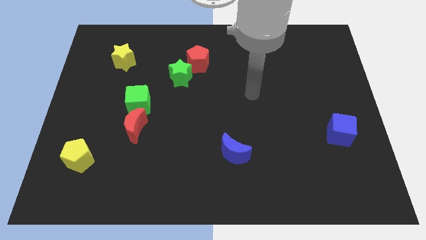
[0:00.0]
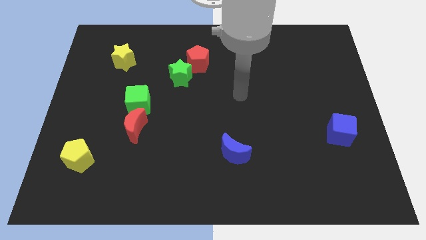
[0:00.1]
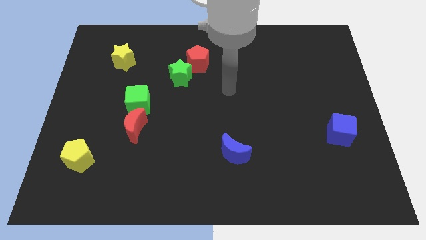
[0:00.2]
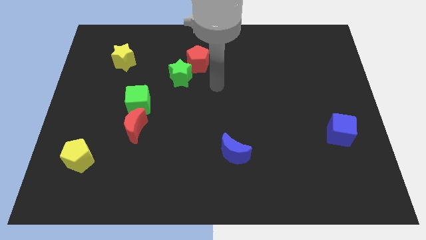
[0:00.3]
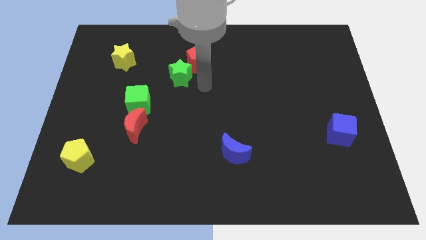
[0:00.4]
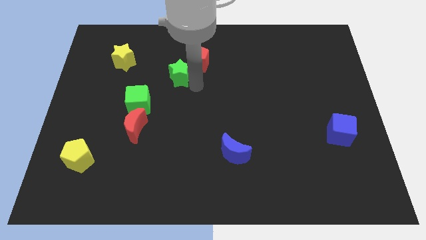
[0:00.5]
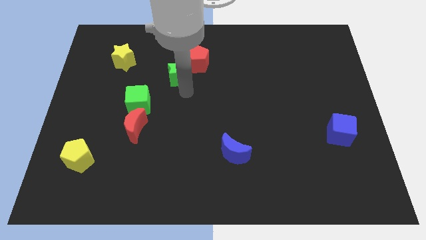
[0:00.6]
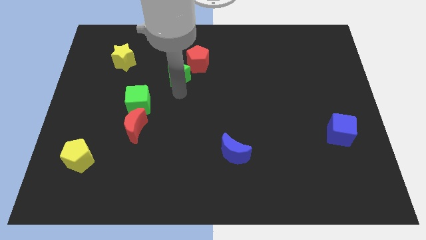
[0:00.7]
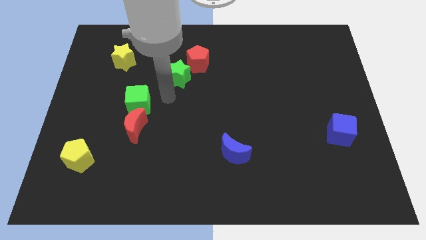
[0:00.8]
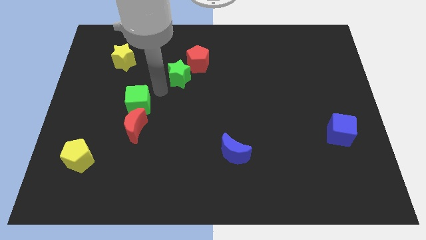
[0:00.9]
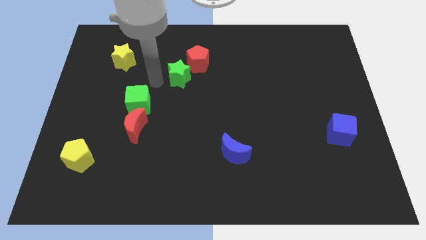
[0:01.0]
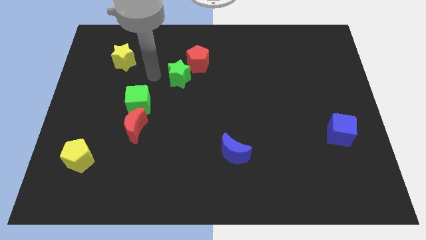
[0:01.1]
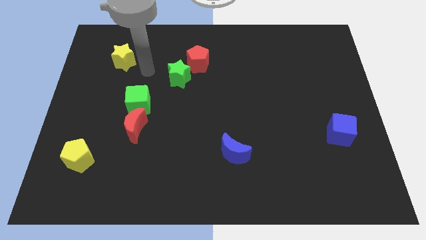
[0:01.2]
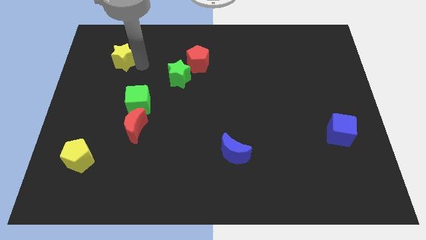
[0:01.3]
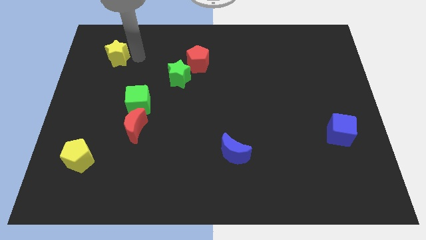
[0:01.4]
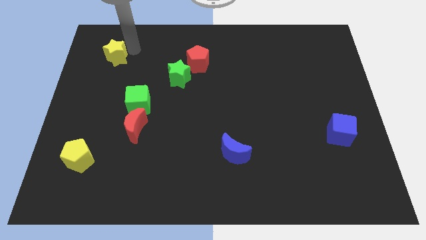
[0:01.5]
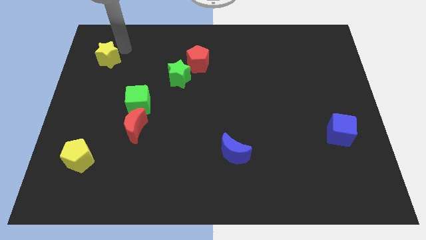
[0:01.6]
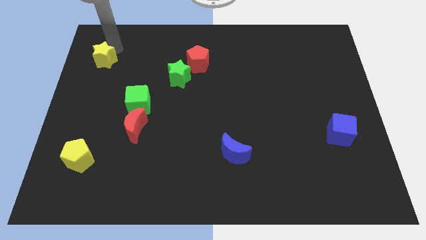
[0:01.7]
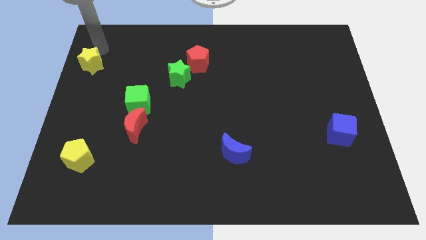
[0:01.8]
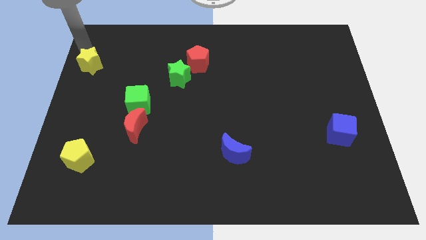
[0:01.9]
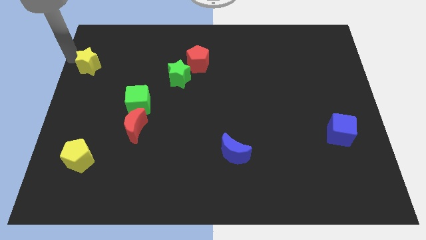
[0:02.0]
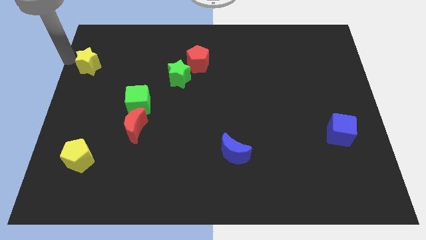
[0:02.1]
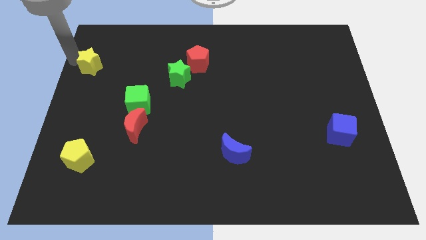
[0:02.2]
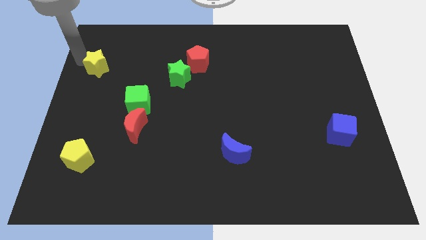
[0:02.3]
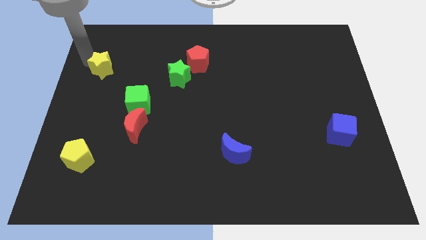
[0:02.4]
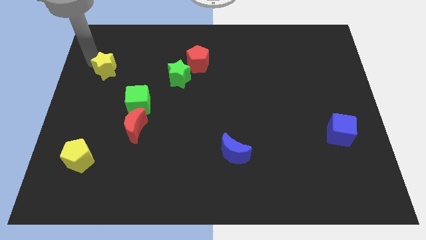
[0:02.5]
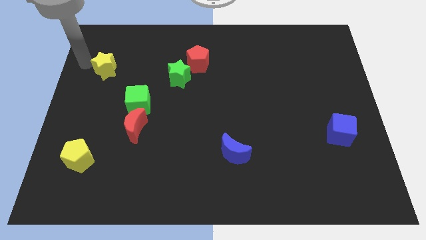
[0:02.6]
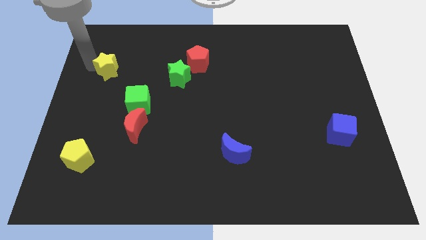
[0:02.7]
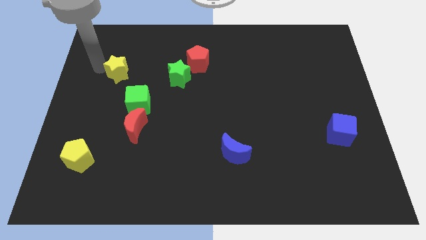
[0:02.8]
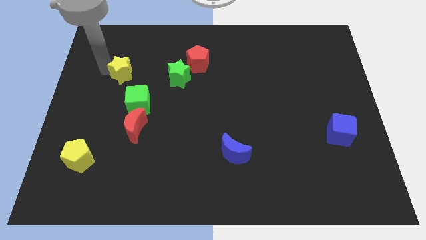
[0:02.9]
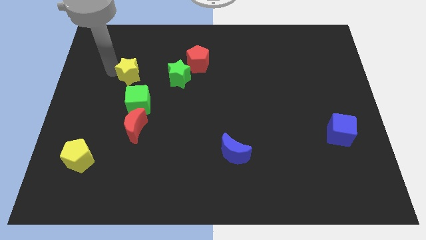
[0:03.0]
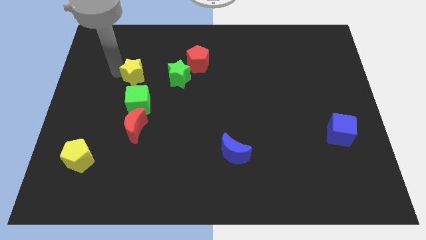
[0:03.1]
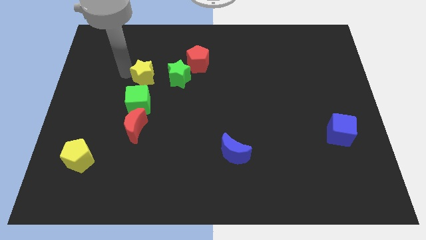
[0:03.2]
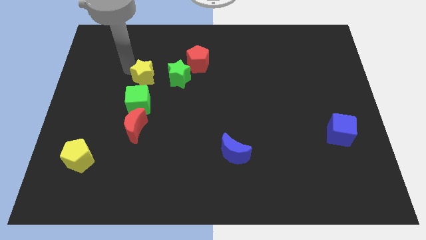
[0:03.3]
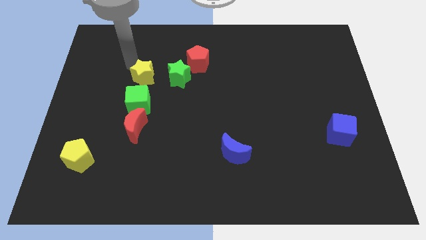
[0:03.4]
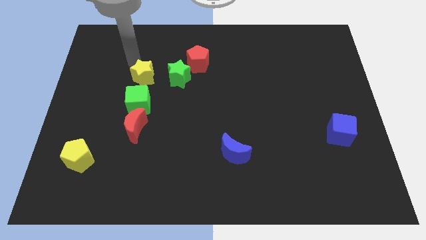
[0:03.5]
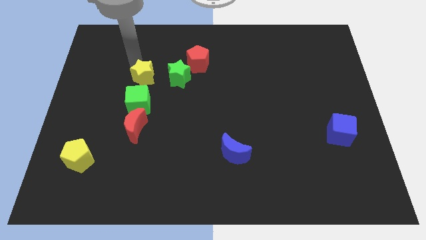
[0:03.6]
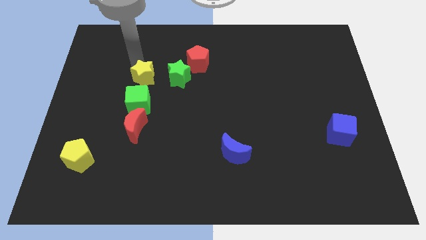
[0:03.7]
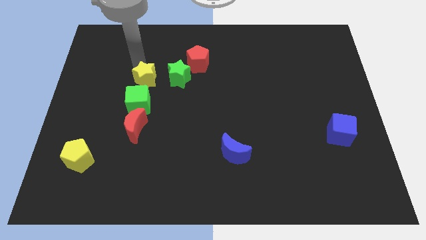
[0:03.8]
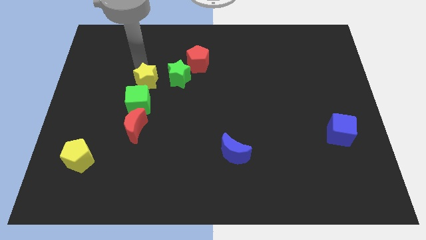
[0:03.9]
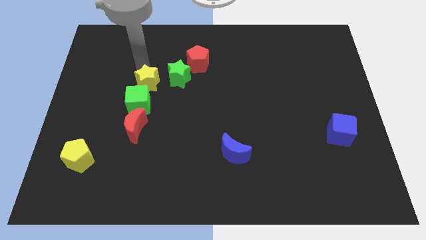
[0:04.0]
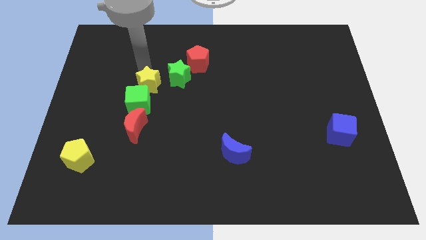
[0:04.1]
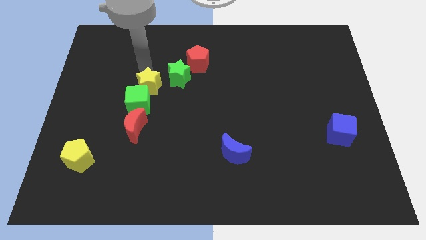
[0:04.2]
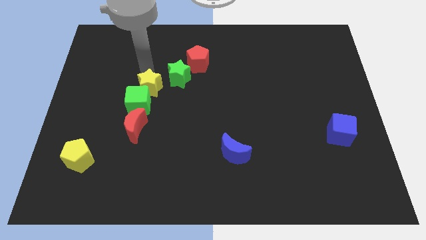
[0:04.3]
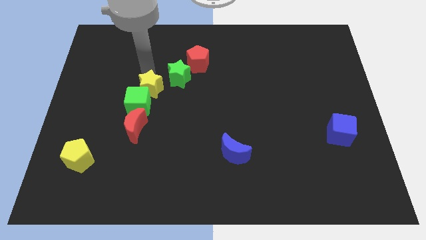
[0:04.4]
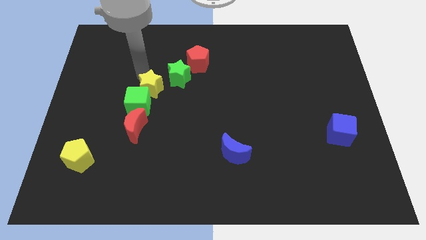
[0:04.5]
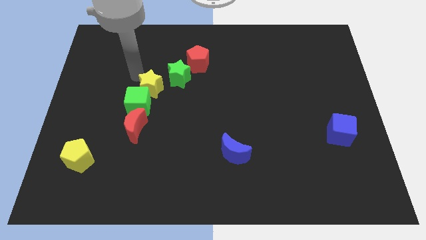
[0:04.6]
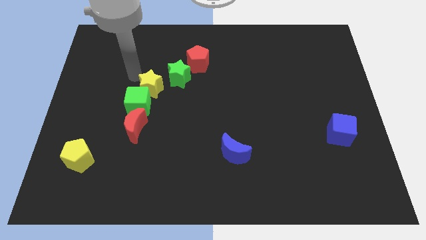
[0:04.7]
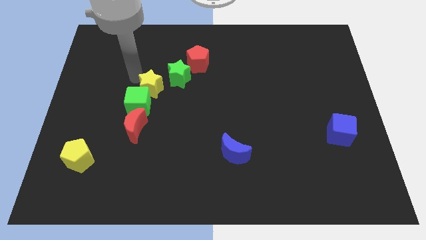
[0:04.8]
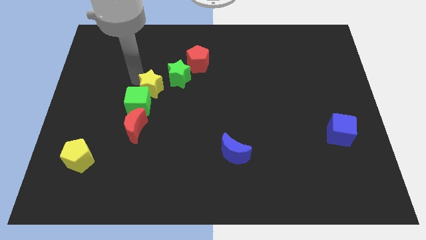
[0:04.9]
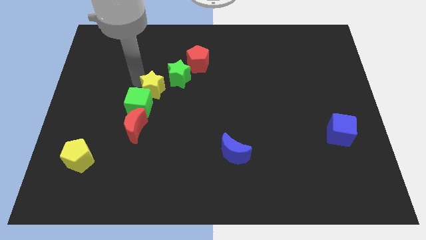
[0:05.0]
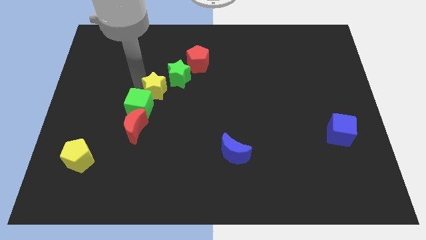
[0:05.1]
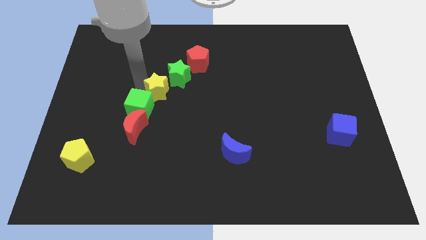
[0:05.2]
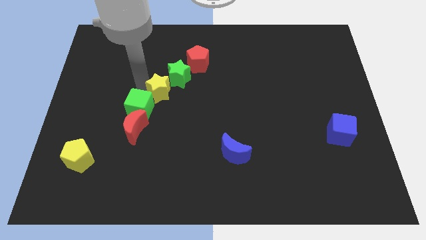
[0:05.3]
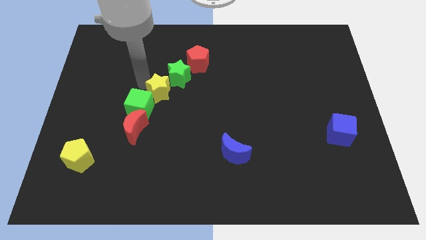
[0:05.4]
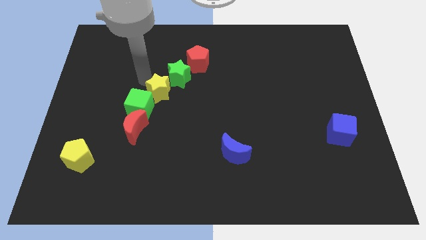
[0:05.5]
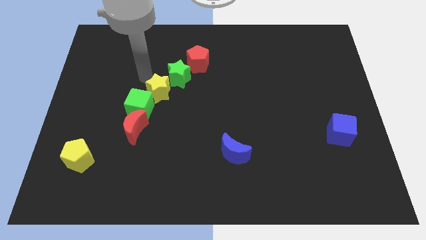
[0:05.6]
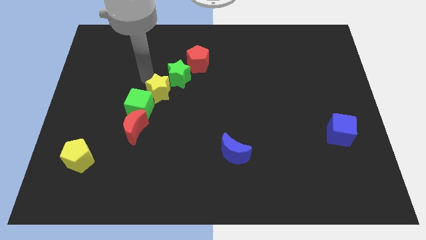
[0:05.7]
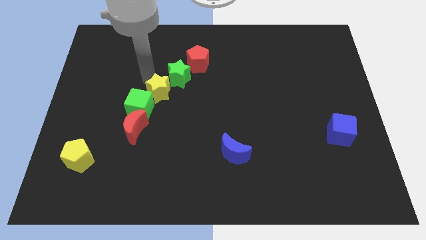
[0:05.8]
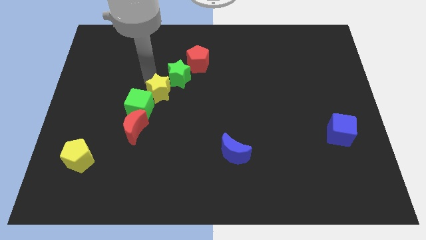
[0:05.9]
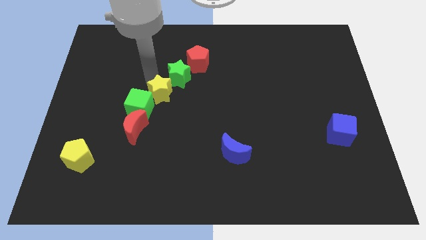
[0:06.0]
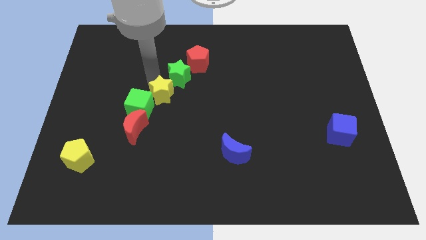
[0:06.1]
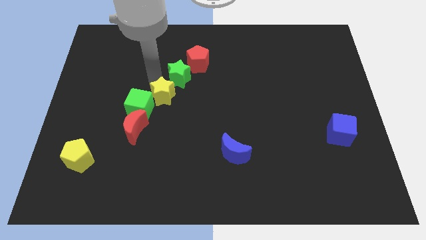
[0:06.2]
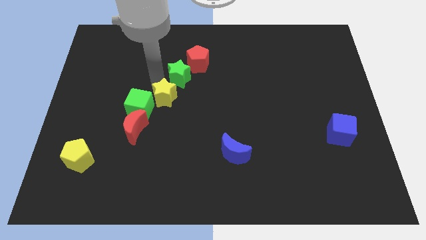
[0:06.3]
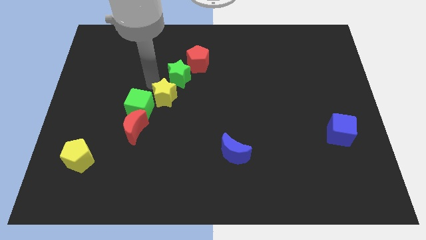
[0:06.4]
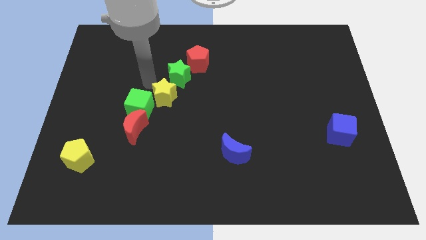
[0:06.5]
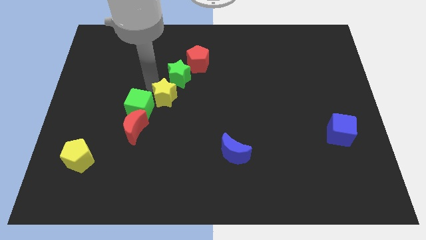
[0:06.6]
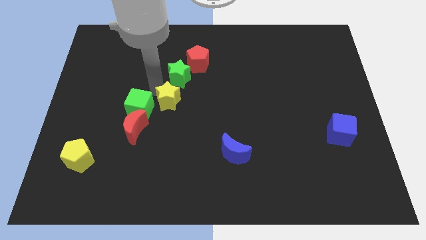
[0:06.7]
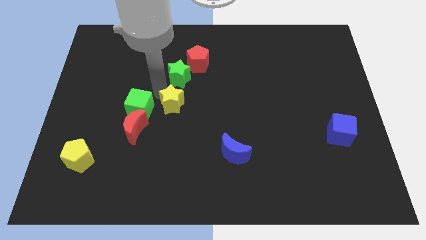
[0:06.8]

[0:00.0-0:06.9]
move the yellow star downwards and to the right diagonally

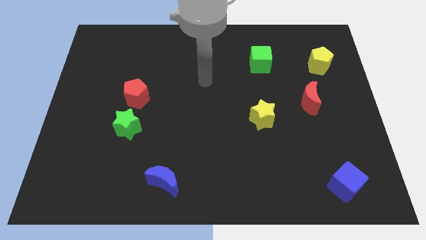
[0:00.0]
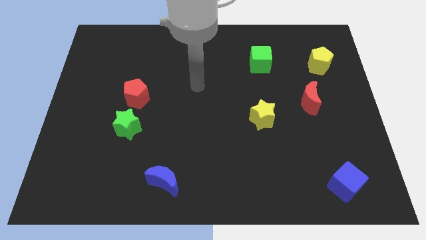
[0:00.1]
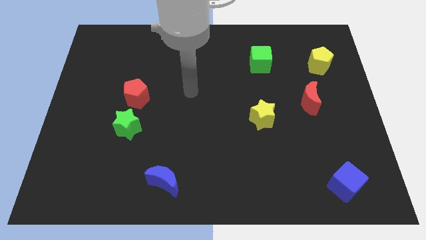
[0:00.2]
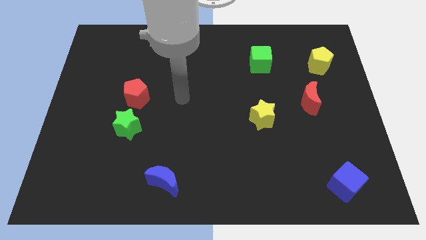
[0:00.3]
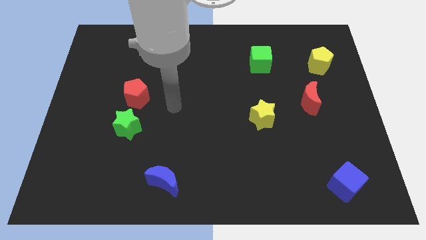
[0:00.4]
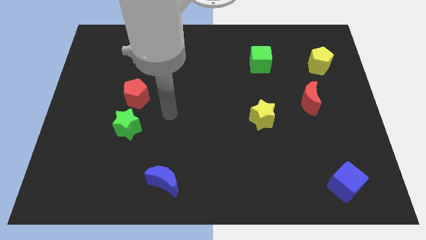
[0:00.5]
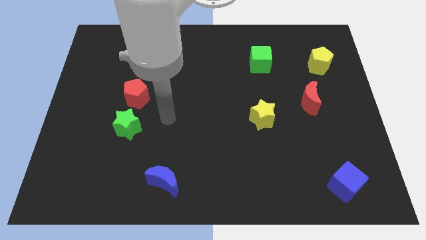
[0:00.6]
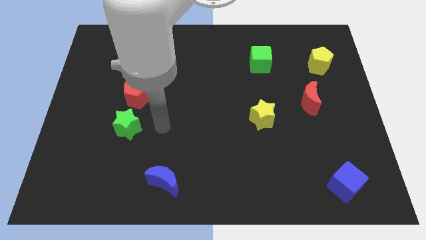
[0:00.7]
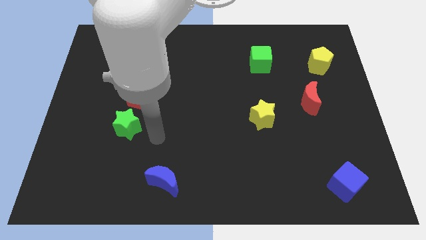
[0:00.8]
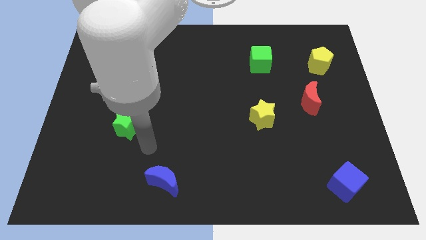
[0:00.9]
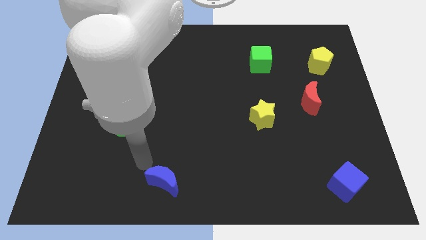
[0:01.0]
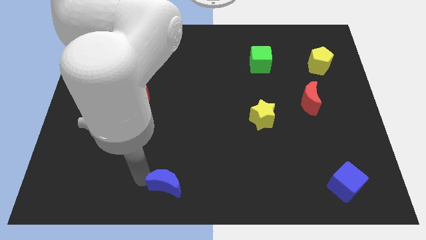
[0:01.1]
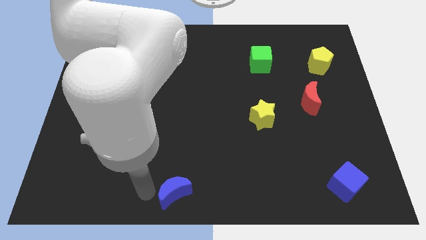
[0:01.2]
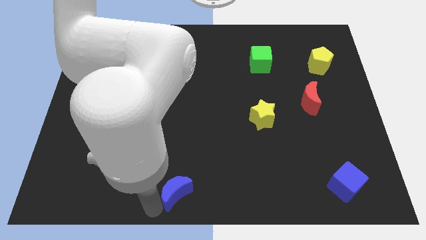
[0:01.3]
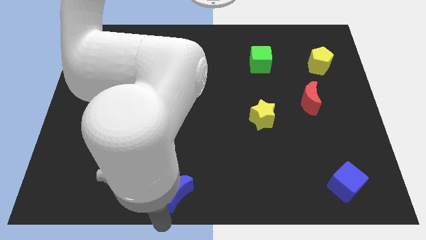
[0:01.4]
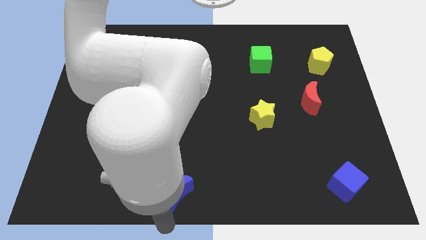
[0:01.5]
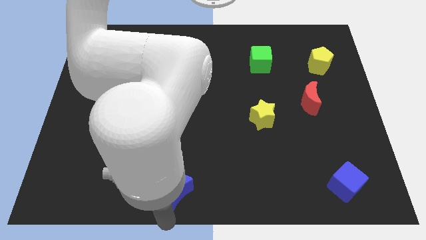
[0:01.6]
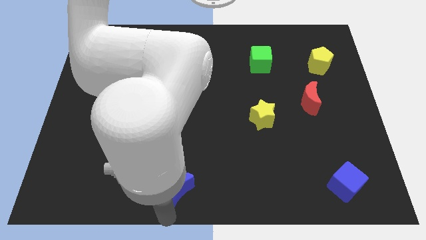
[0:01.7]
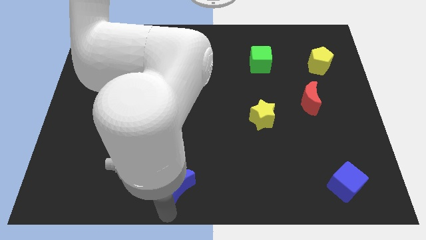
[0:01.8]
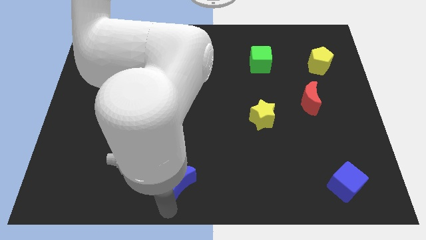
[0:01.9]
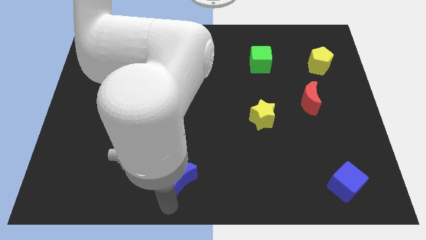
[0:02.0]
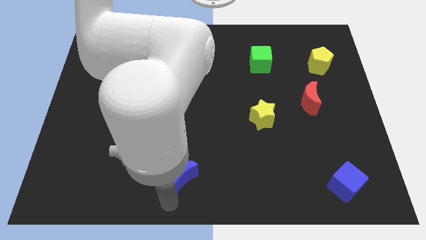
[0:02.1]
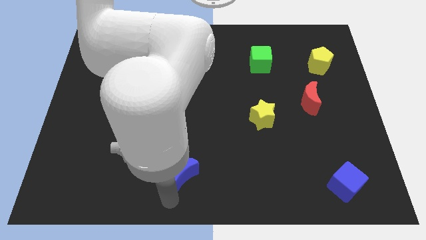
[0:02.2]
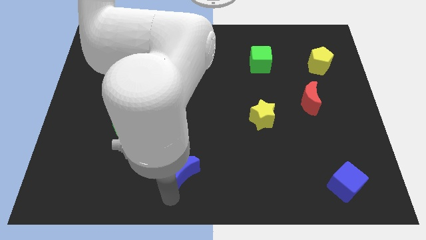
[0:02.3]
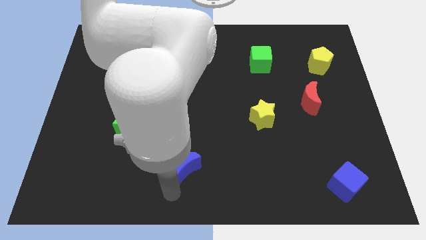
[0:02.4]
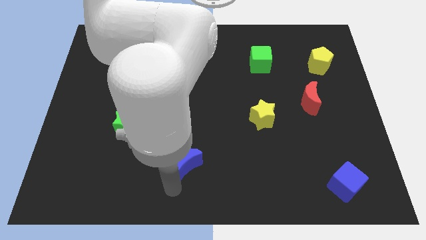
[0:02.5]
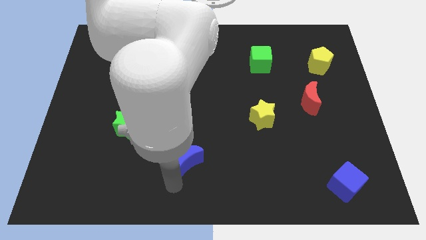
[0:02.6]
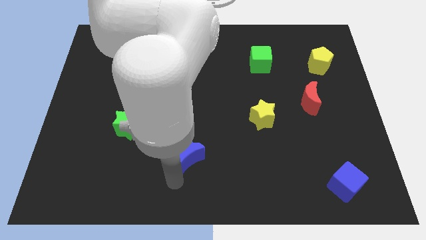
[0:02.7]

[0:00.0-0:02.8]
slightly push the blue moon upwards and to the right
